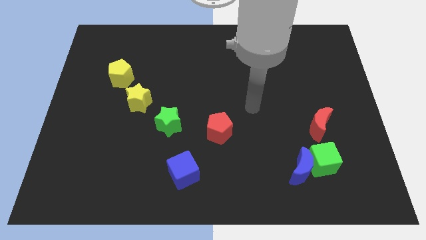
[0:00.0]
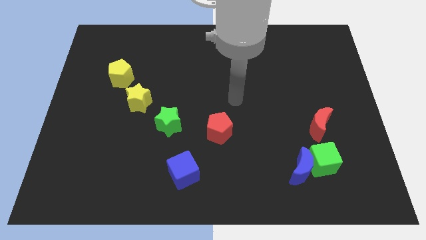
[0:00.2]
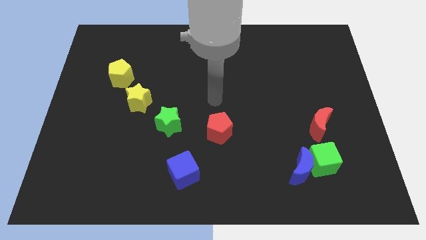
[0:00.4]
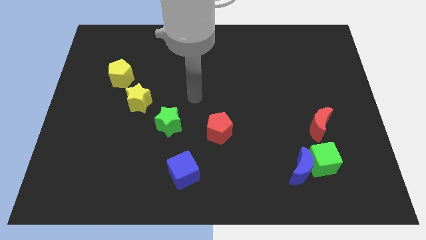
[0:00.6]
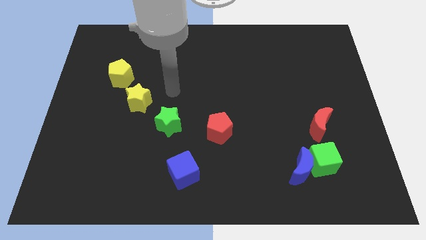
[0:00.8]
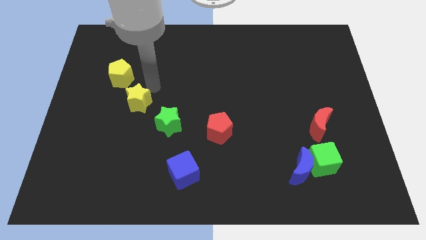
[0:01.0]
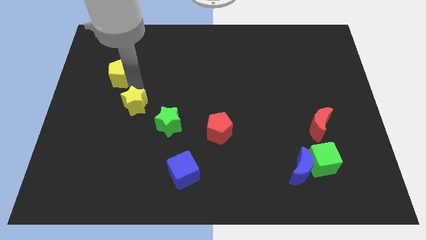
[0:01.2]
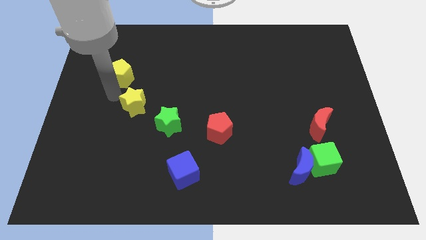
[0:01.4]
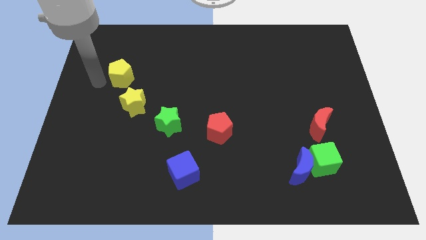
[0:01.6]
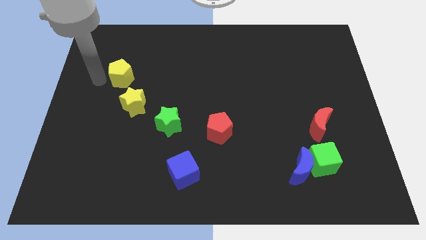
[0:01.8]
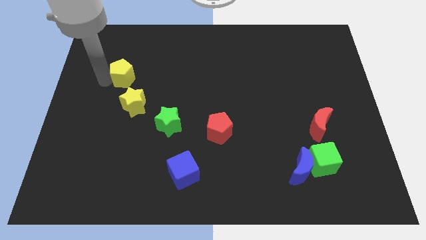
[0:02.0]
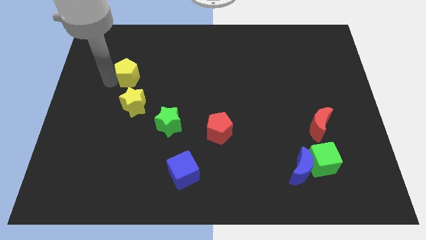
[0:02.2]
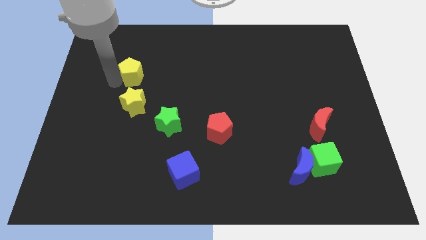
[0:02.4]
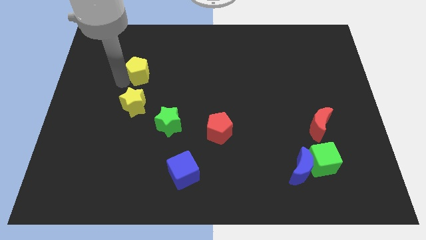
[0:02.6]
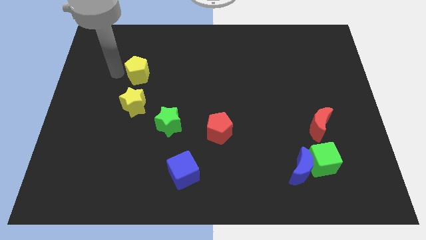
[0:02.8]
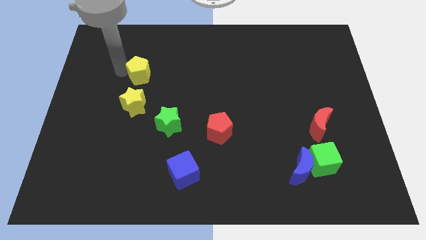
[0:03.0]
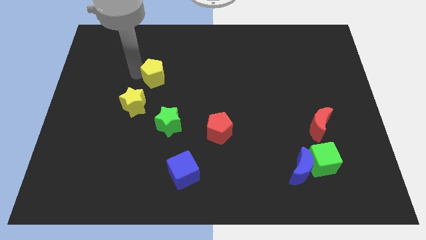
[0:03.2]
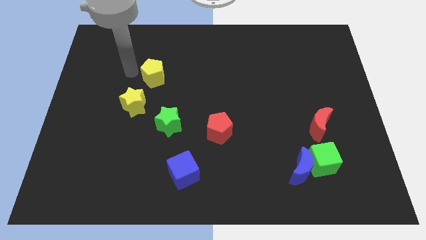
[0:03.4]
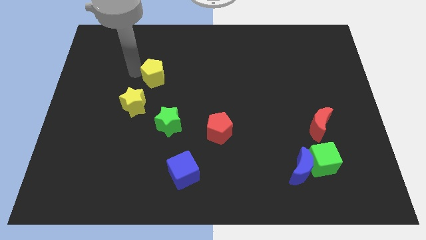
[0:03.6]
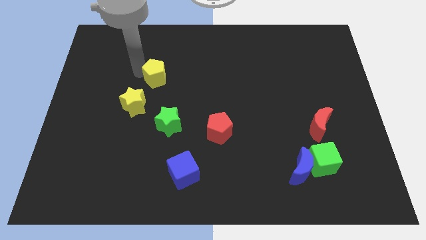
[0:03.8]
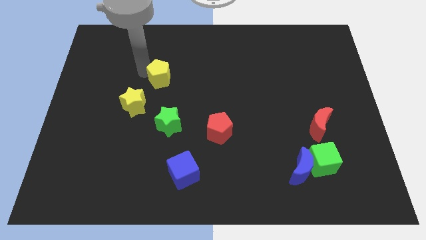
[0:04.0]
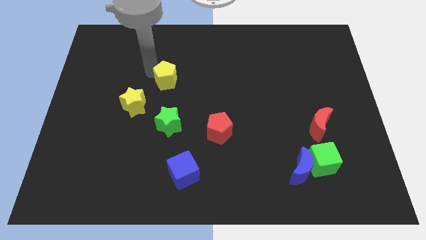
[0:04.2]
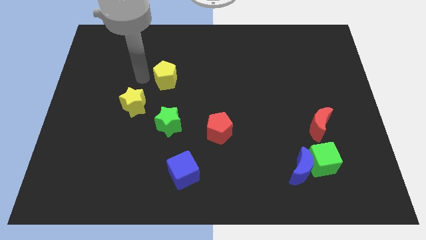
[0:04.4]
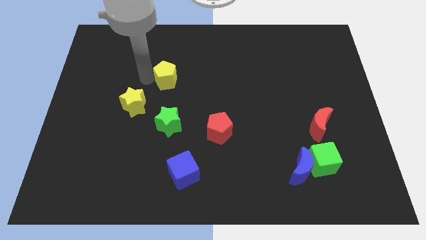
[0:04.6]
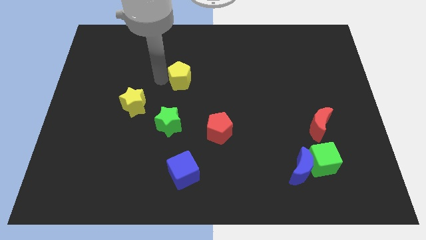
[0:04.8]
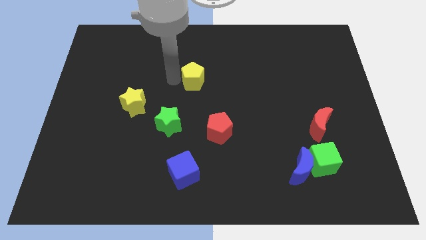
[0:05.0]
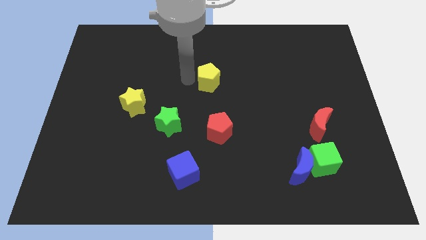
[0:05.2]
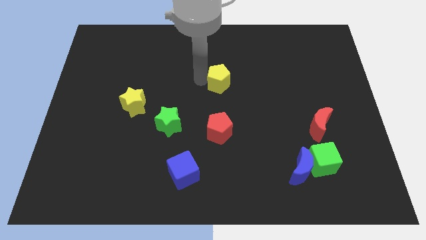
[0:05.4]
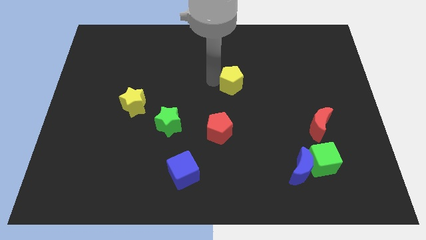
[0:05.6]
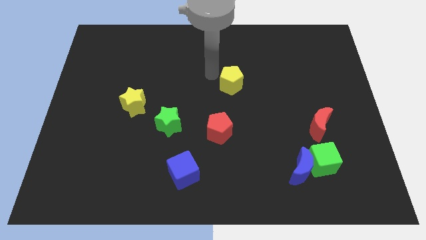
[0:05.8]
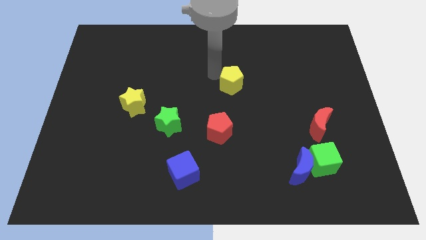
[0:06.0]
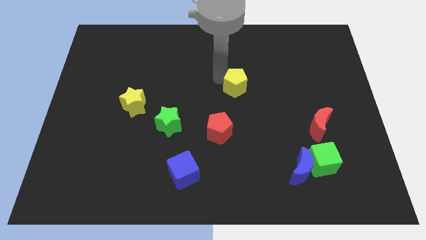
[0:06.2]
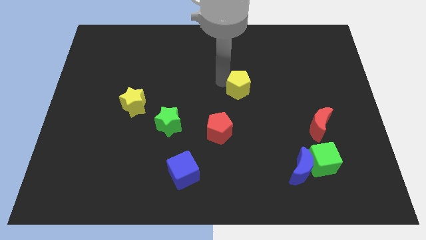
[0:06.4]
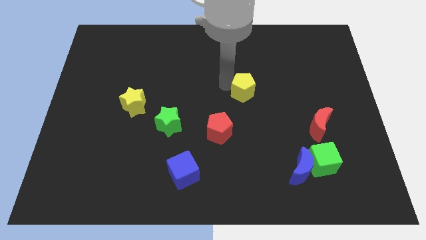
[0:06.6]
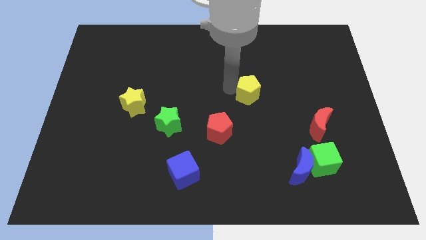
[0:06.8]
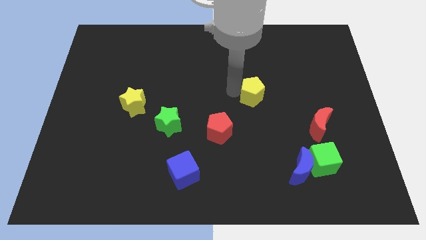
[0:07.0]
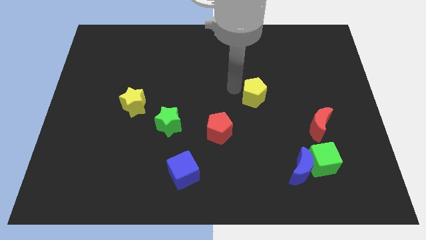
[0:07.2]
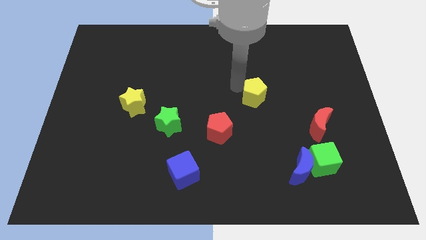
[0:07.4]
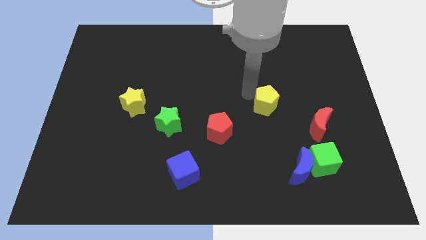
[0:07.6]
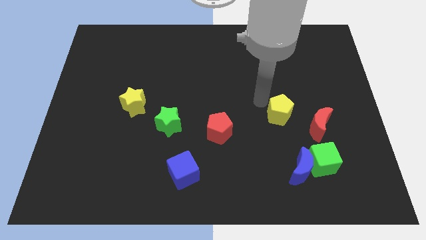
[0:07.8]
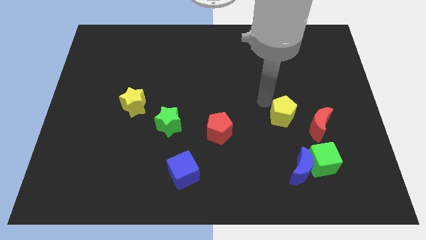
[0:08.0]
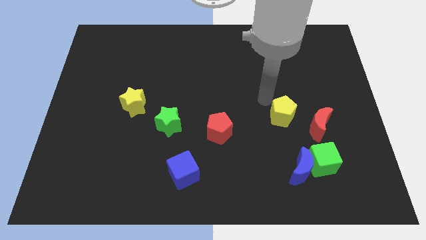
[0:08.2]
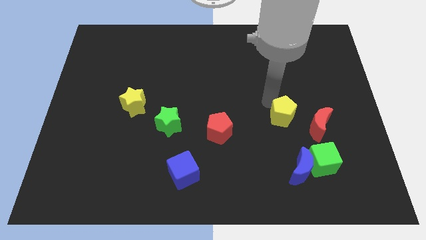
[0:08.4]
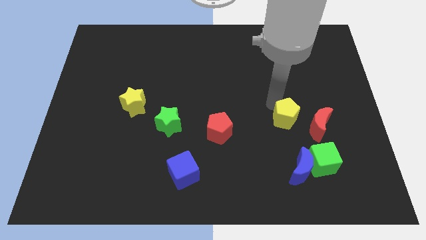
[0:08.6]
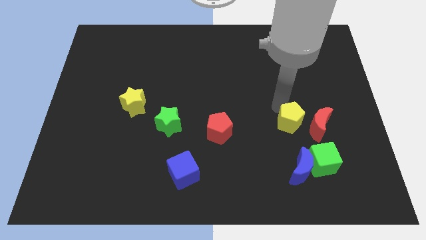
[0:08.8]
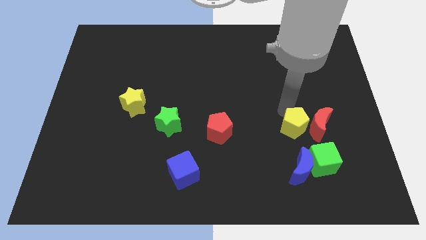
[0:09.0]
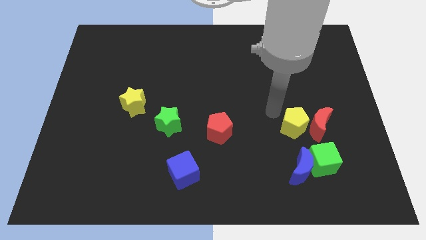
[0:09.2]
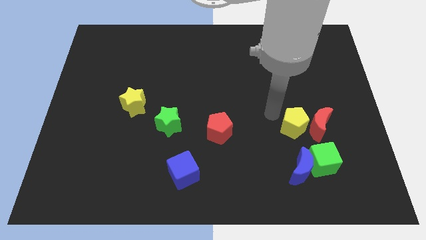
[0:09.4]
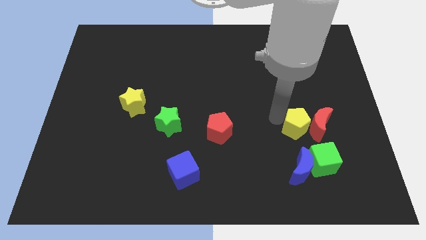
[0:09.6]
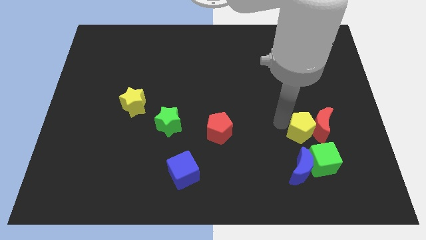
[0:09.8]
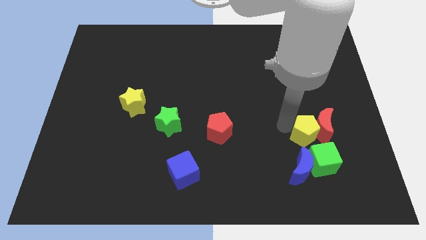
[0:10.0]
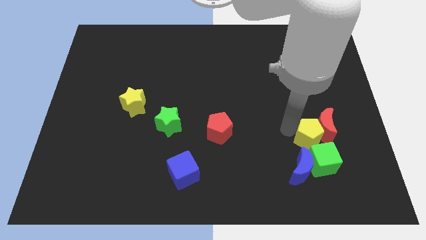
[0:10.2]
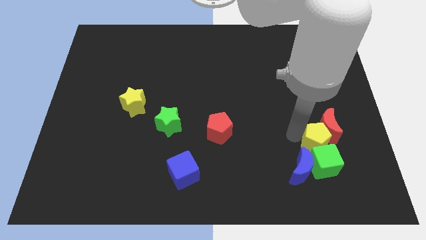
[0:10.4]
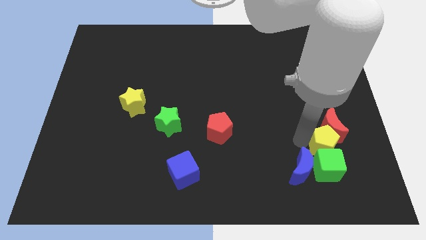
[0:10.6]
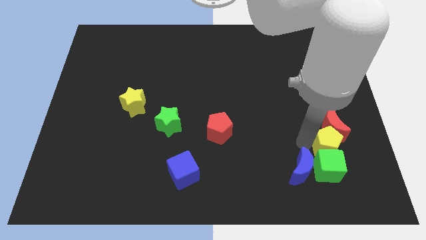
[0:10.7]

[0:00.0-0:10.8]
put the yellow pentagon diagonally down and to the right of the red moon

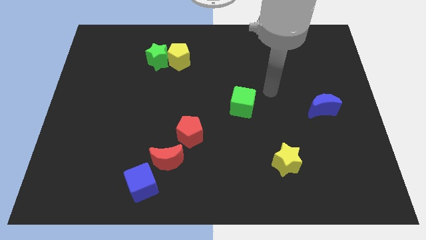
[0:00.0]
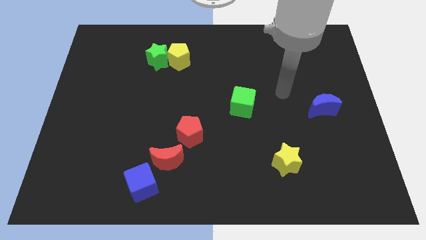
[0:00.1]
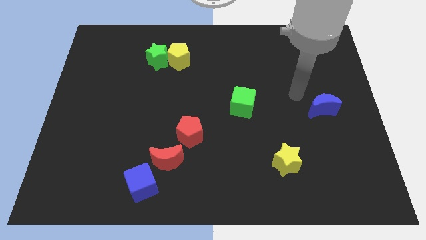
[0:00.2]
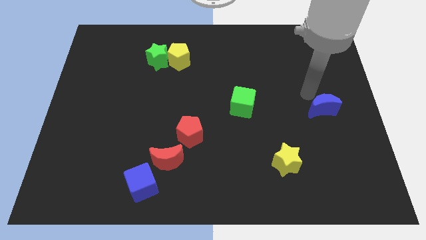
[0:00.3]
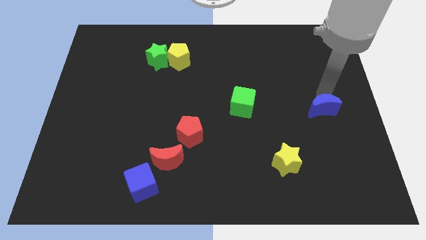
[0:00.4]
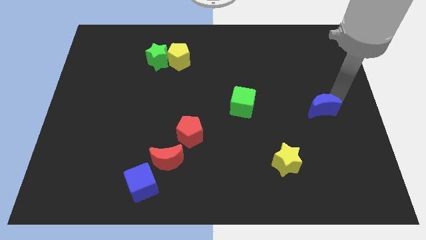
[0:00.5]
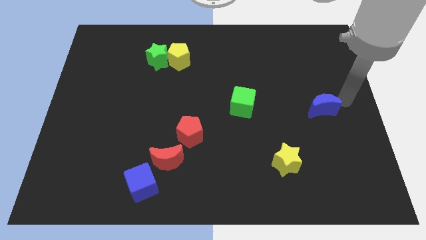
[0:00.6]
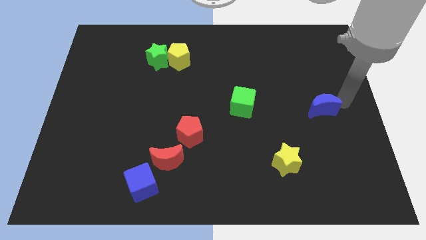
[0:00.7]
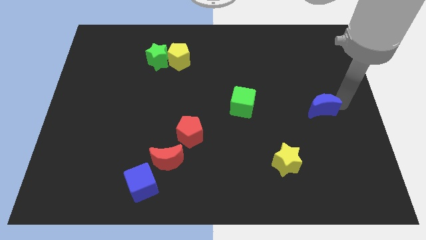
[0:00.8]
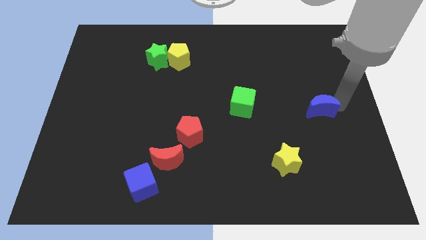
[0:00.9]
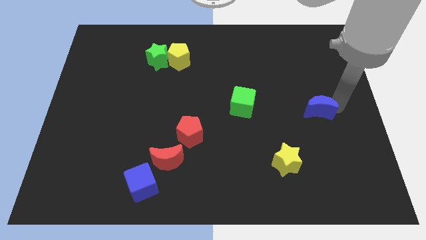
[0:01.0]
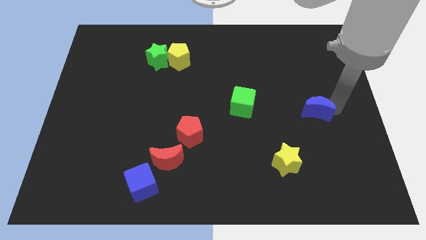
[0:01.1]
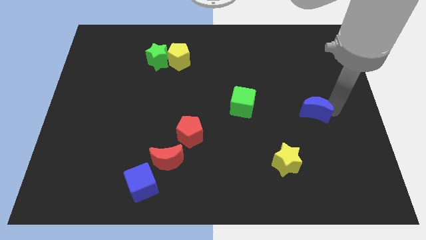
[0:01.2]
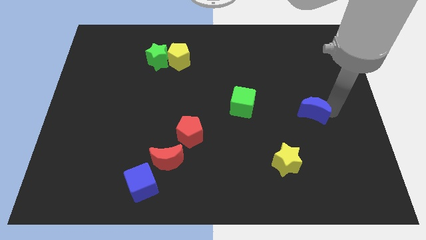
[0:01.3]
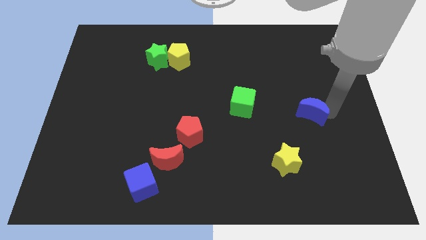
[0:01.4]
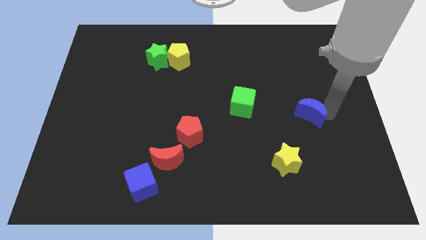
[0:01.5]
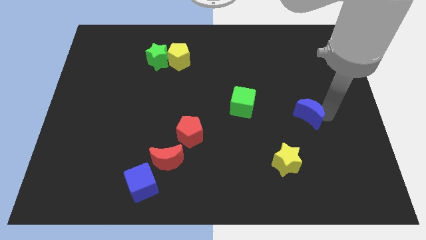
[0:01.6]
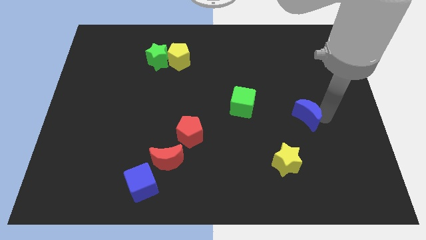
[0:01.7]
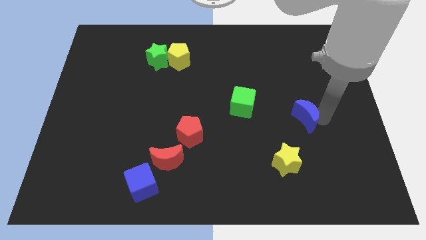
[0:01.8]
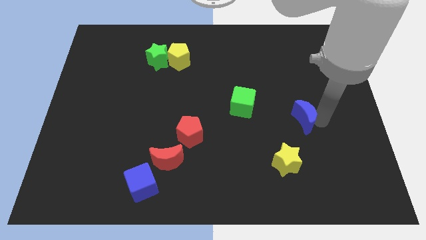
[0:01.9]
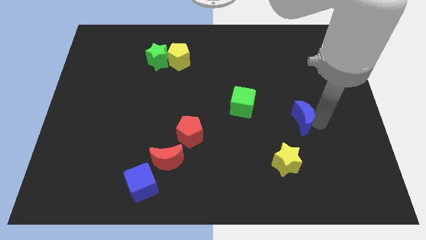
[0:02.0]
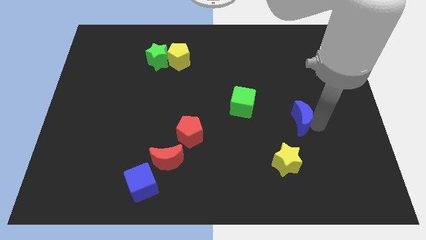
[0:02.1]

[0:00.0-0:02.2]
push the blue moon to the top side of the yellow star
